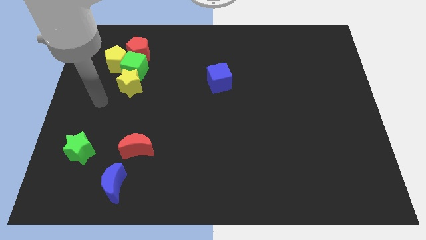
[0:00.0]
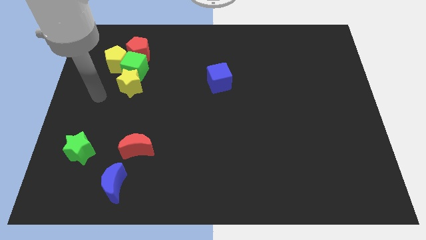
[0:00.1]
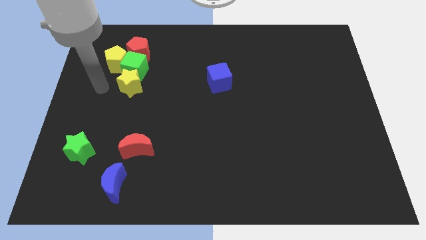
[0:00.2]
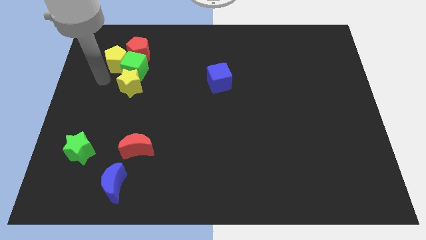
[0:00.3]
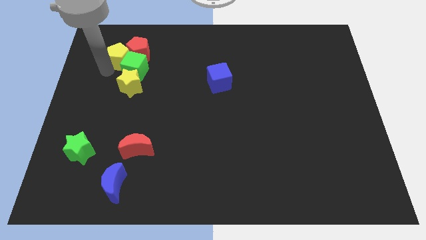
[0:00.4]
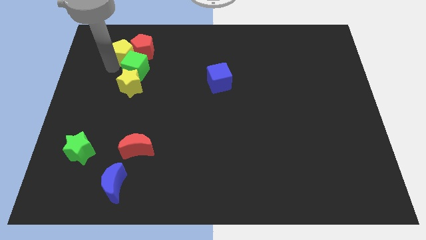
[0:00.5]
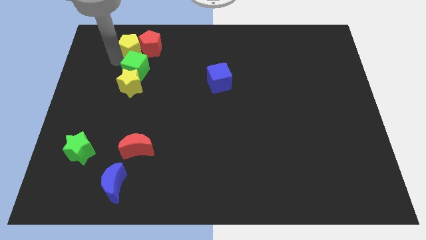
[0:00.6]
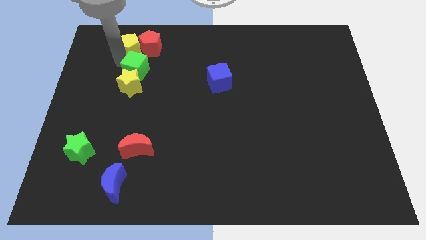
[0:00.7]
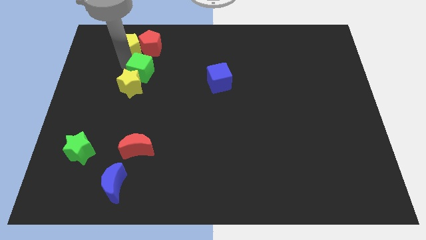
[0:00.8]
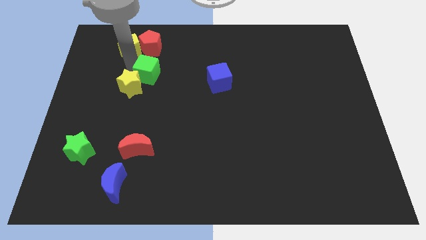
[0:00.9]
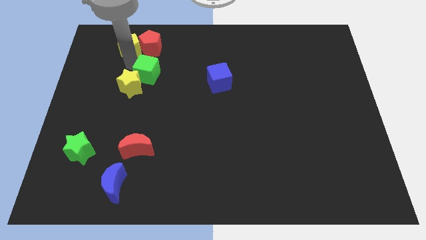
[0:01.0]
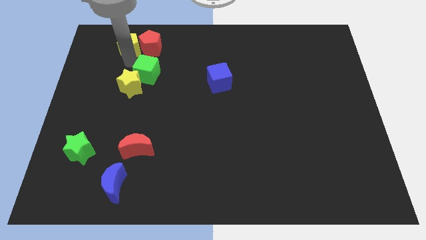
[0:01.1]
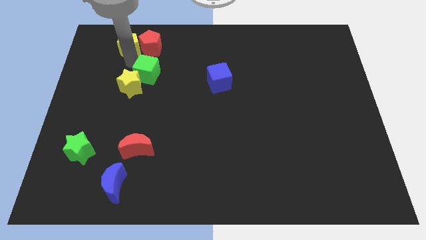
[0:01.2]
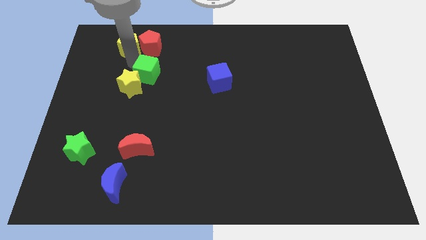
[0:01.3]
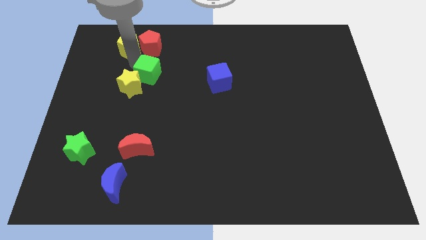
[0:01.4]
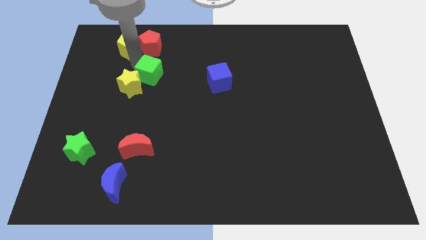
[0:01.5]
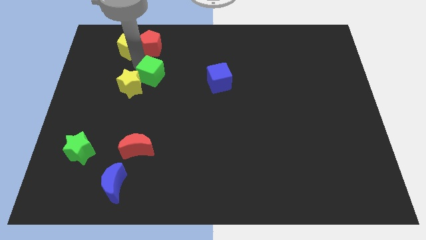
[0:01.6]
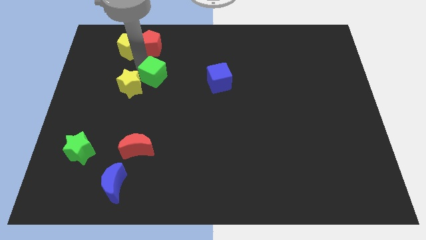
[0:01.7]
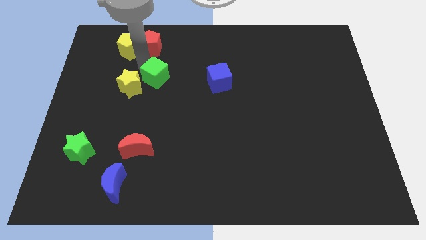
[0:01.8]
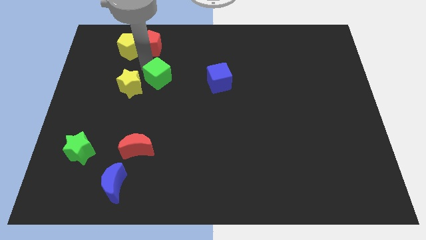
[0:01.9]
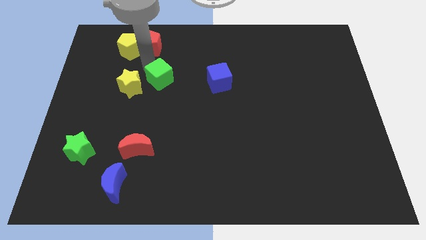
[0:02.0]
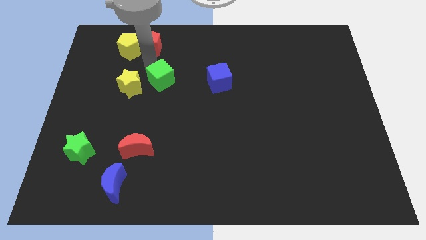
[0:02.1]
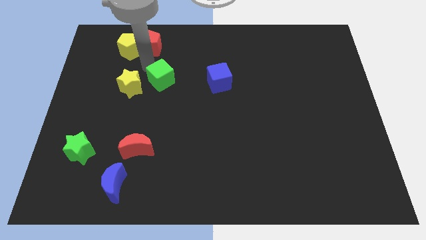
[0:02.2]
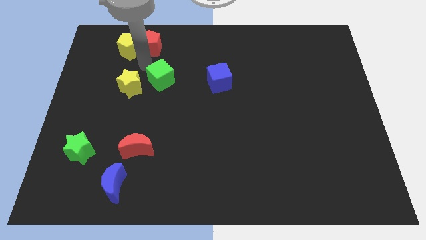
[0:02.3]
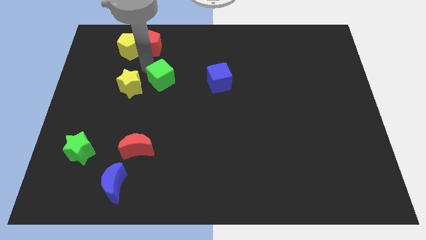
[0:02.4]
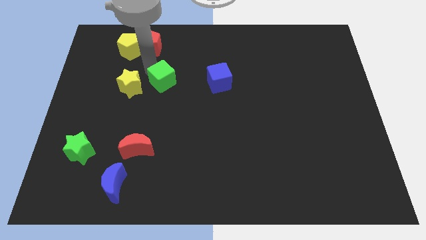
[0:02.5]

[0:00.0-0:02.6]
separate the green cube from the yellow star, yellow pentagon, and red pentagon

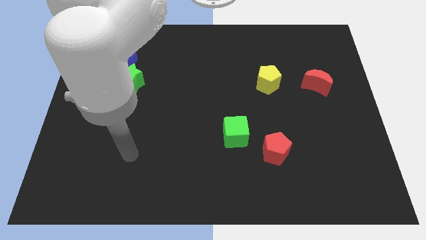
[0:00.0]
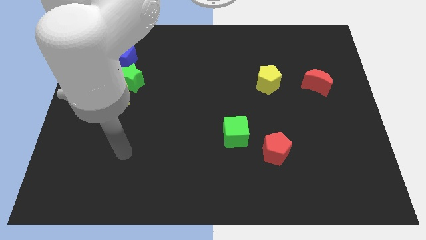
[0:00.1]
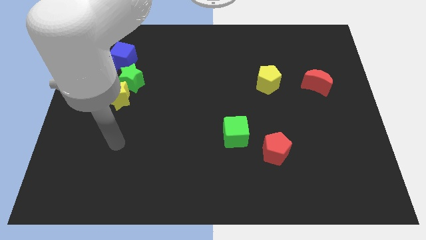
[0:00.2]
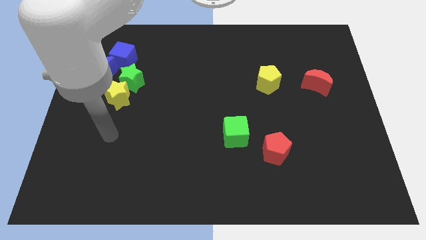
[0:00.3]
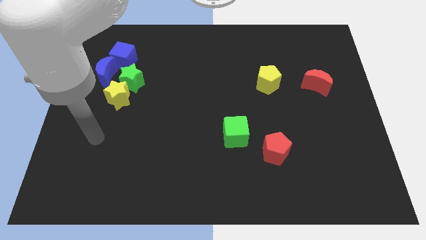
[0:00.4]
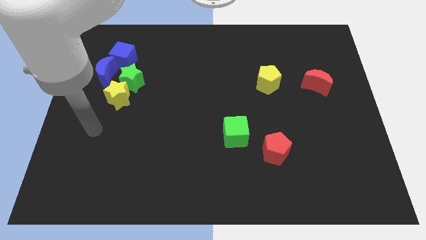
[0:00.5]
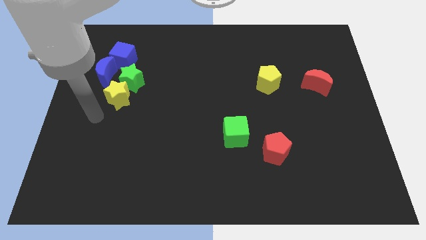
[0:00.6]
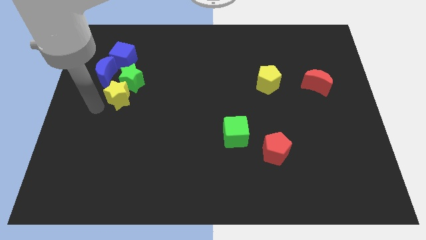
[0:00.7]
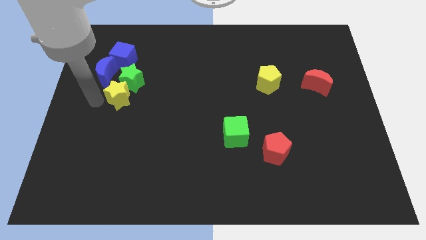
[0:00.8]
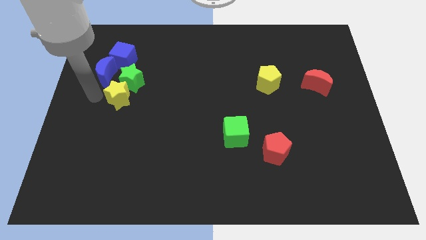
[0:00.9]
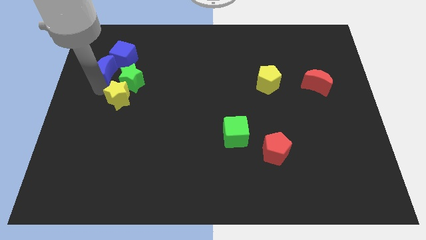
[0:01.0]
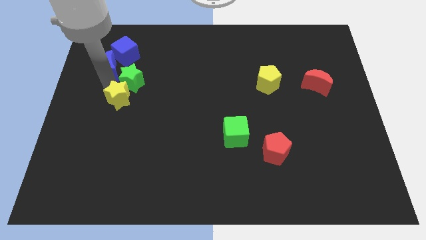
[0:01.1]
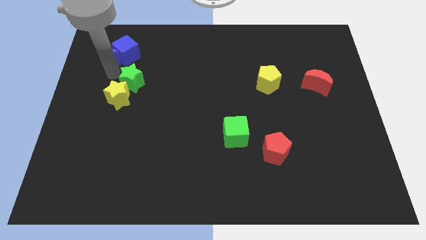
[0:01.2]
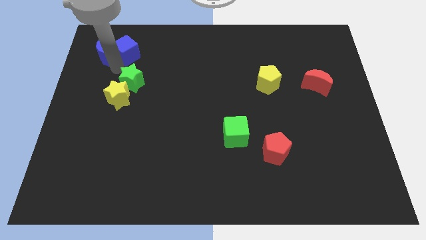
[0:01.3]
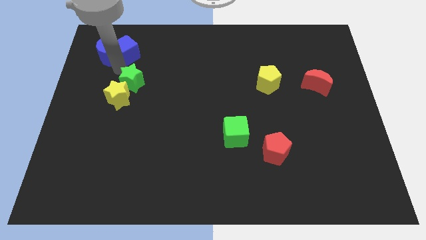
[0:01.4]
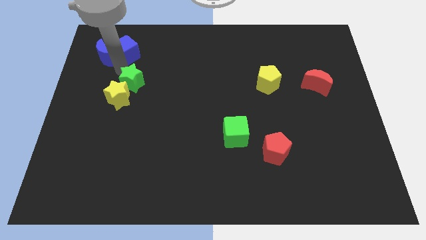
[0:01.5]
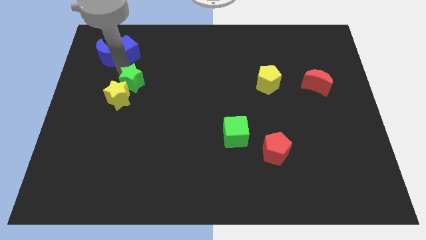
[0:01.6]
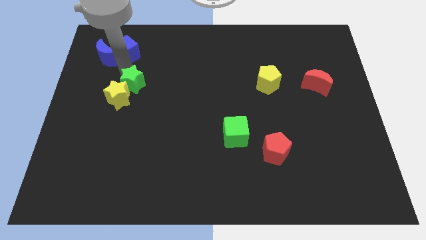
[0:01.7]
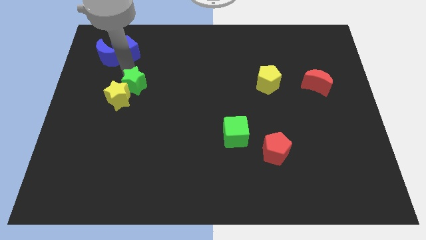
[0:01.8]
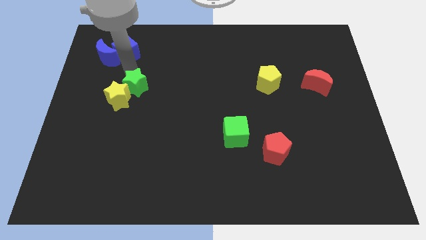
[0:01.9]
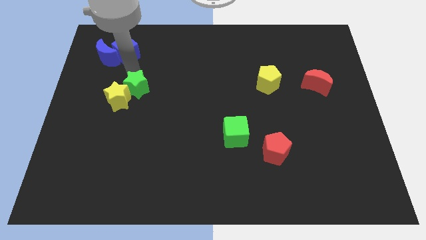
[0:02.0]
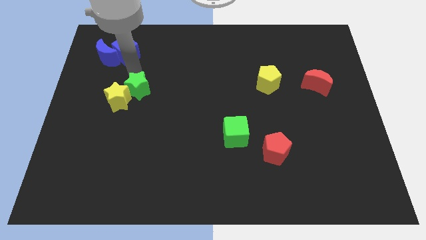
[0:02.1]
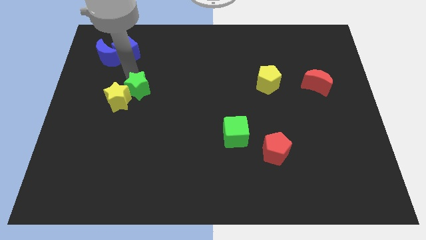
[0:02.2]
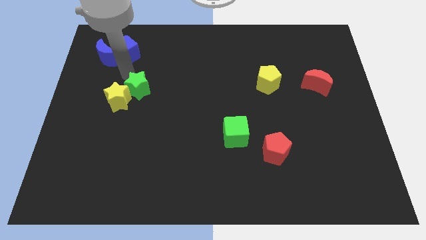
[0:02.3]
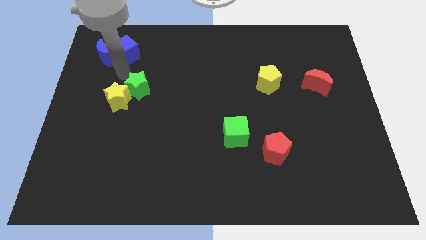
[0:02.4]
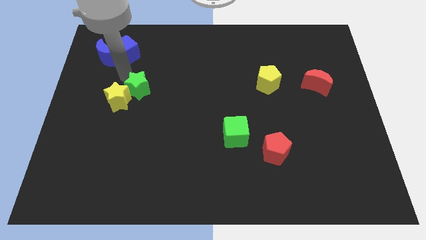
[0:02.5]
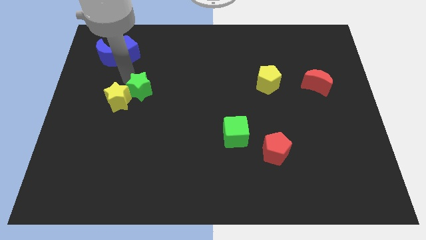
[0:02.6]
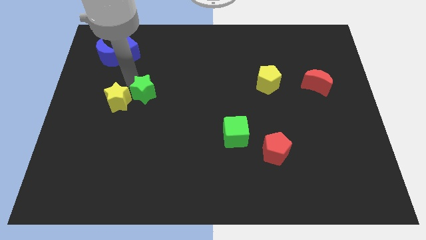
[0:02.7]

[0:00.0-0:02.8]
move the green star away from the yellow star, blue moon, and blue cube

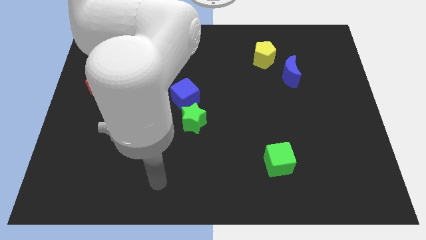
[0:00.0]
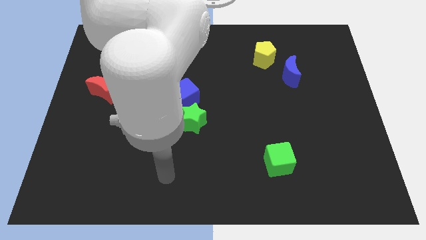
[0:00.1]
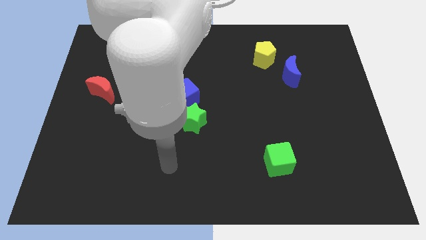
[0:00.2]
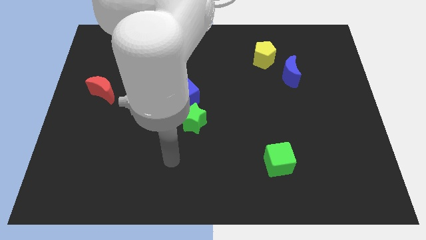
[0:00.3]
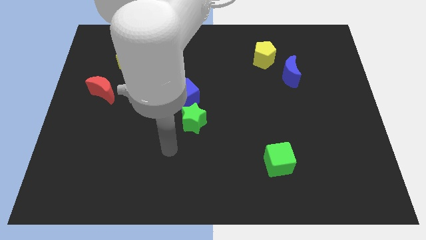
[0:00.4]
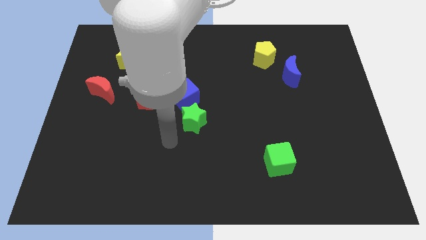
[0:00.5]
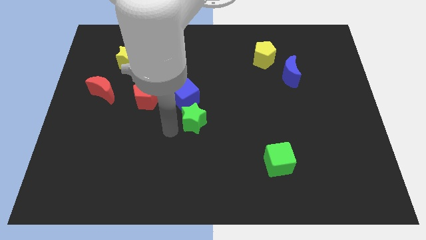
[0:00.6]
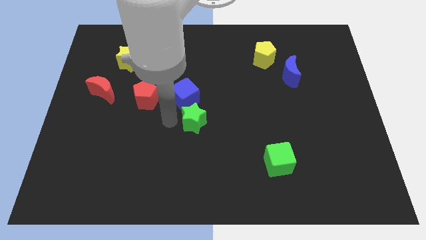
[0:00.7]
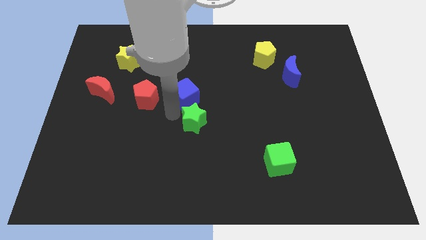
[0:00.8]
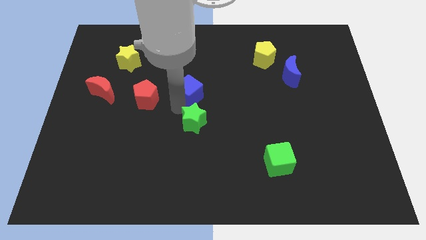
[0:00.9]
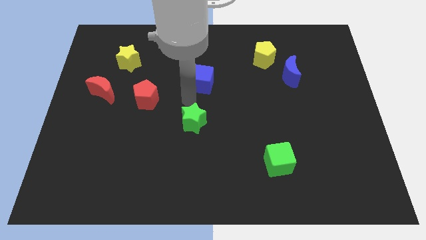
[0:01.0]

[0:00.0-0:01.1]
pull the green star apart from the blue cube

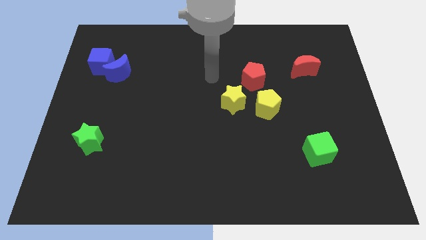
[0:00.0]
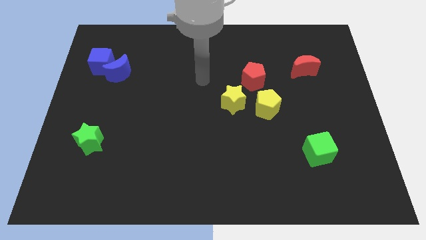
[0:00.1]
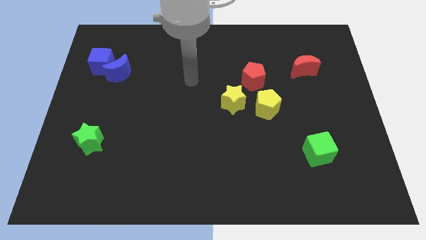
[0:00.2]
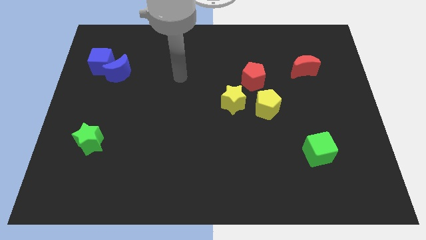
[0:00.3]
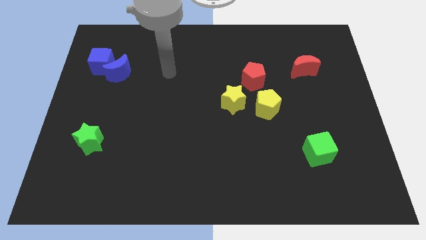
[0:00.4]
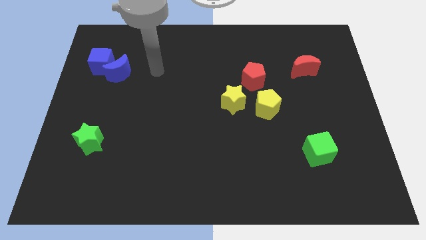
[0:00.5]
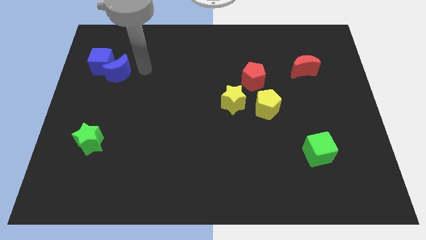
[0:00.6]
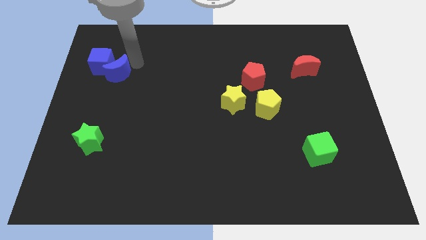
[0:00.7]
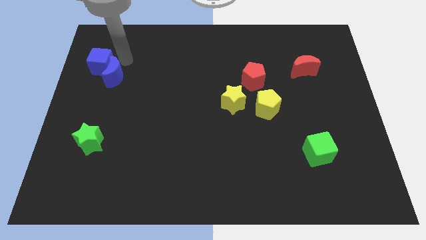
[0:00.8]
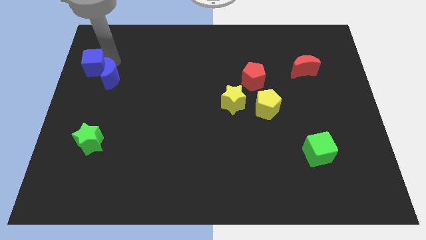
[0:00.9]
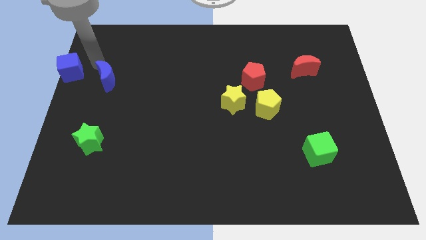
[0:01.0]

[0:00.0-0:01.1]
separate the blue moon from the blue cube

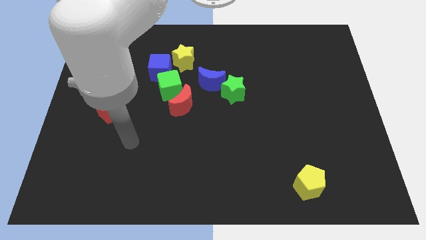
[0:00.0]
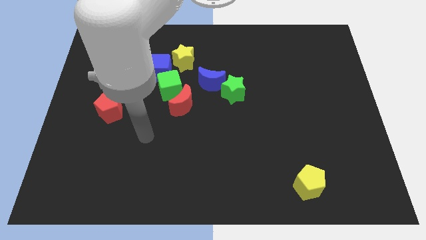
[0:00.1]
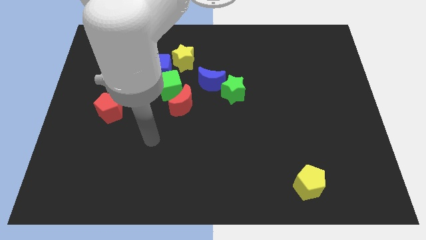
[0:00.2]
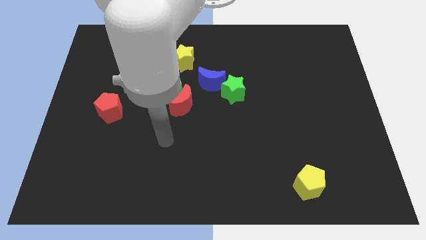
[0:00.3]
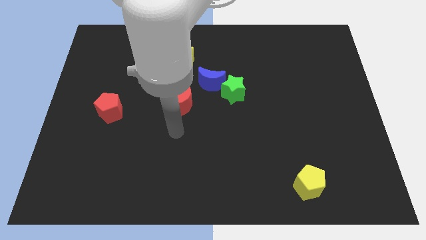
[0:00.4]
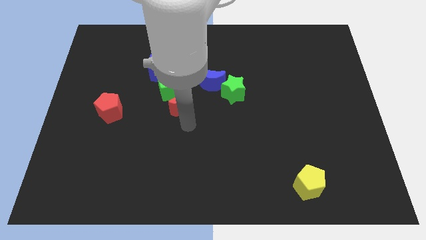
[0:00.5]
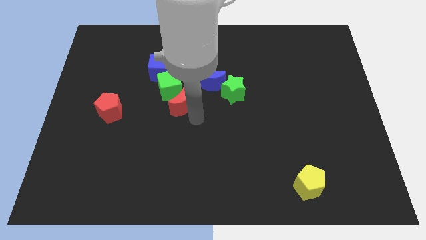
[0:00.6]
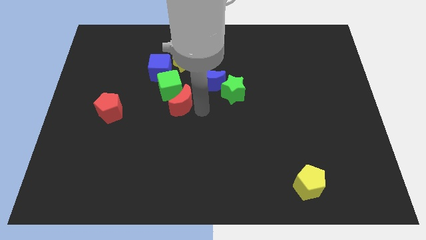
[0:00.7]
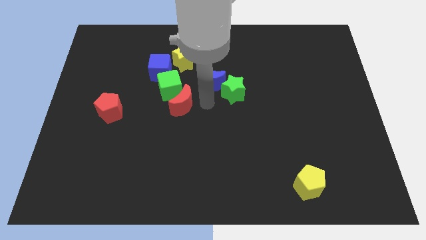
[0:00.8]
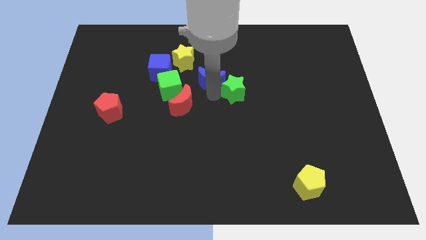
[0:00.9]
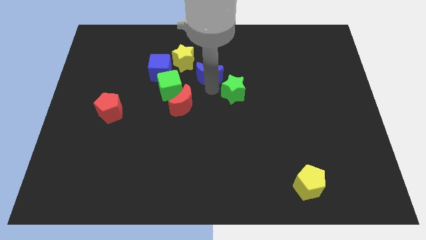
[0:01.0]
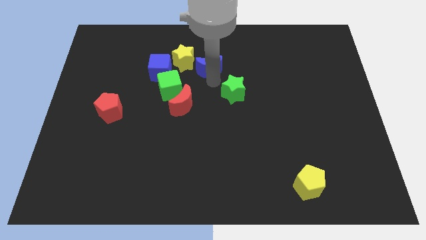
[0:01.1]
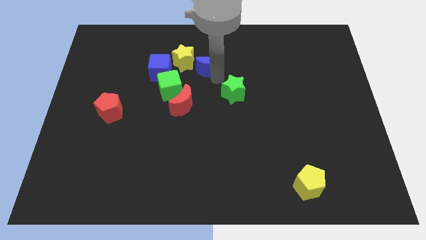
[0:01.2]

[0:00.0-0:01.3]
move the green star away from the blue moon

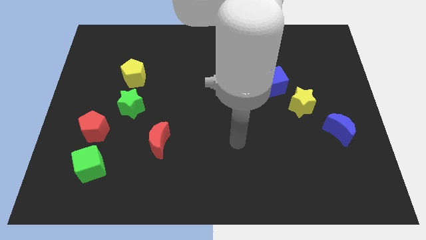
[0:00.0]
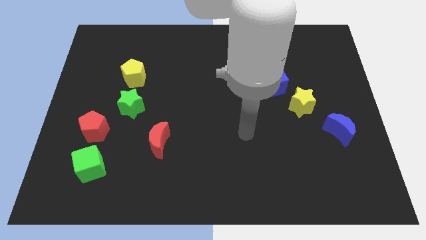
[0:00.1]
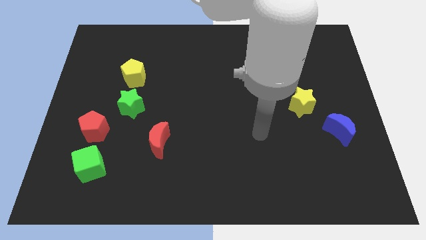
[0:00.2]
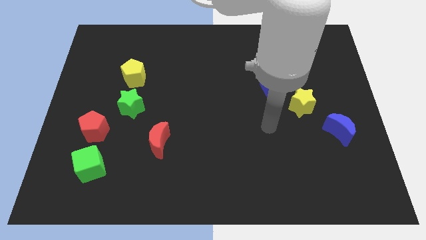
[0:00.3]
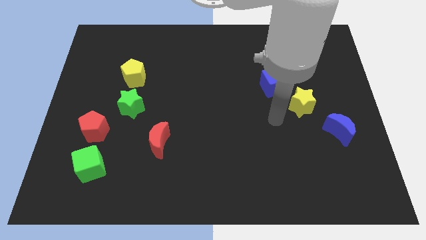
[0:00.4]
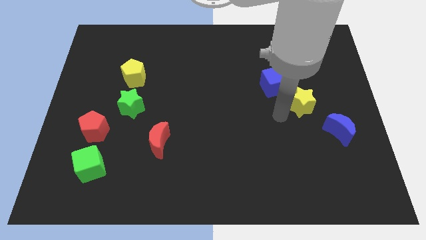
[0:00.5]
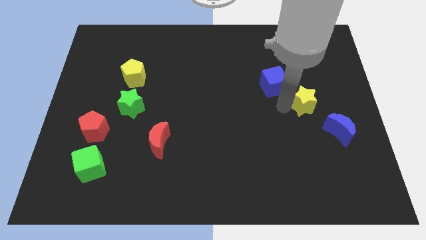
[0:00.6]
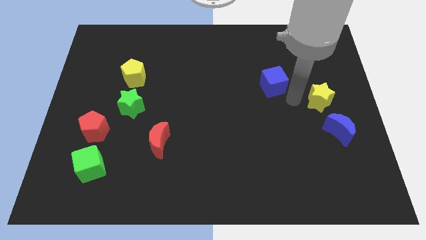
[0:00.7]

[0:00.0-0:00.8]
pull the blue cube apart from the yellow star
